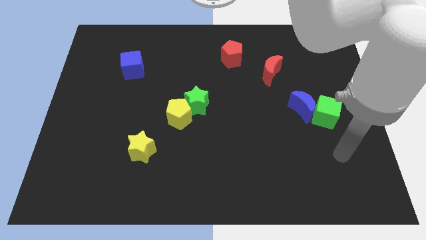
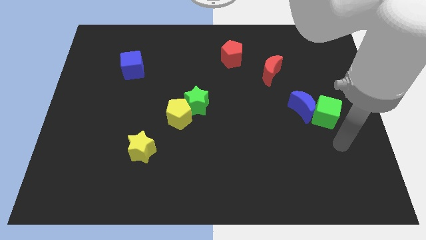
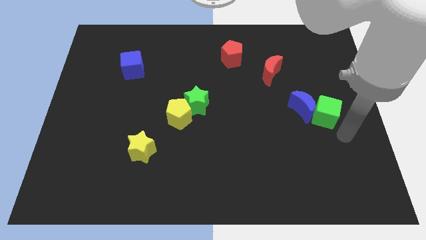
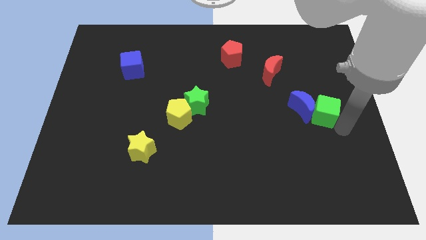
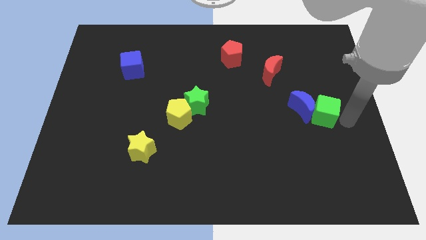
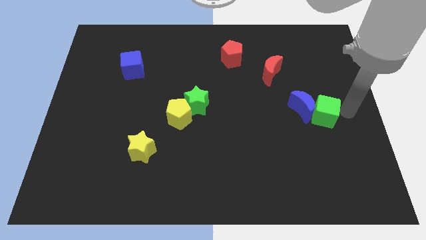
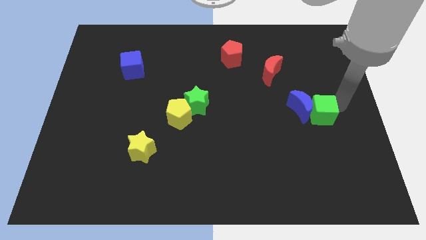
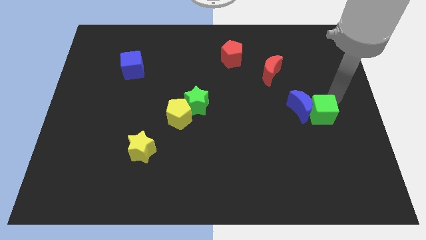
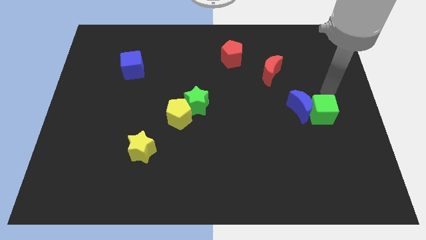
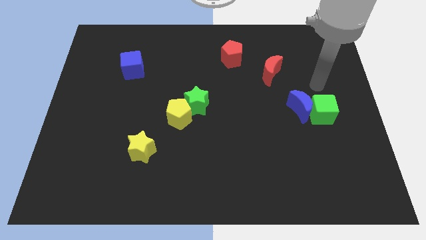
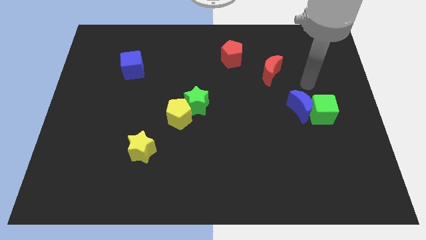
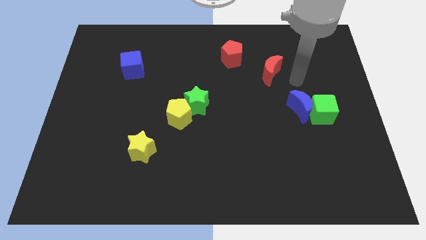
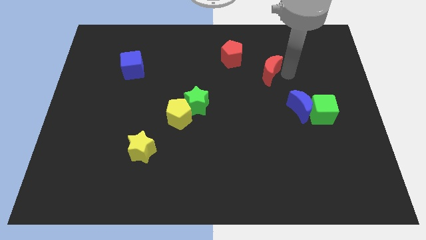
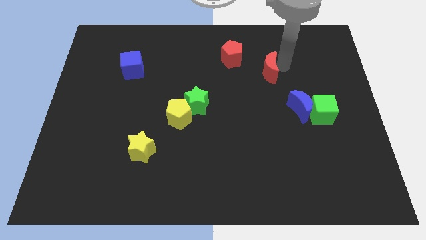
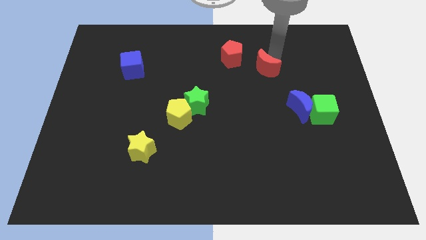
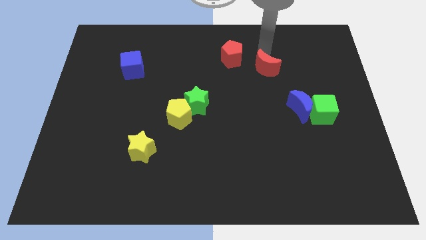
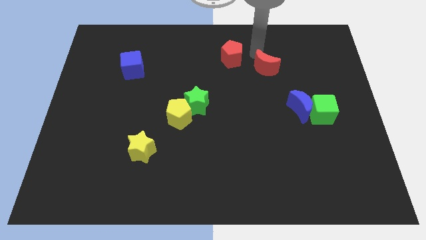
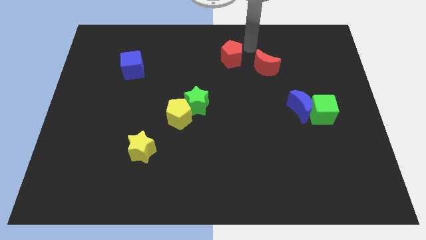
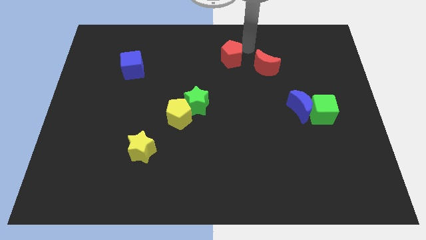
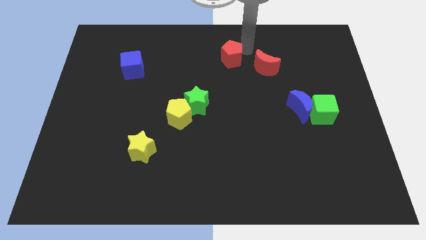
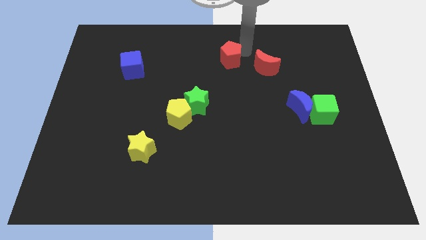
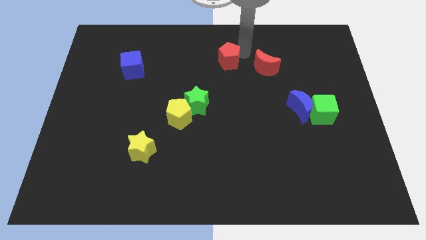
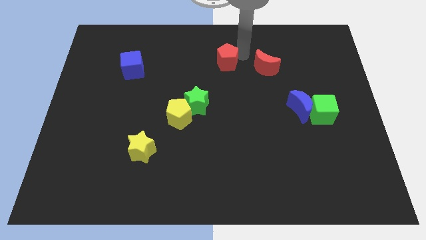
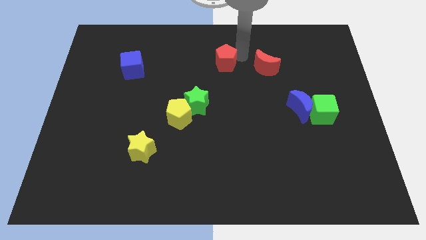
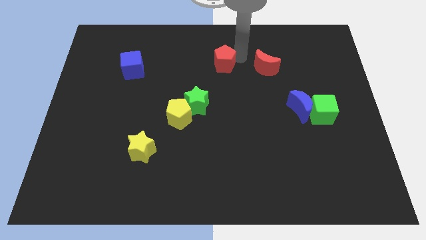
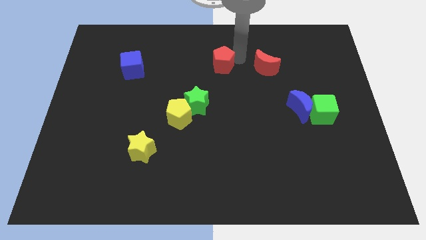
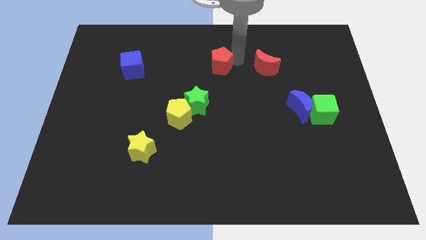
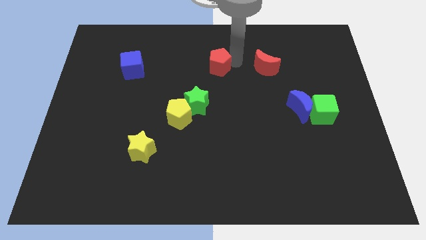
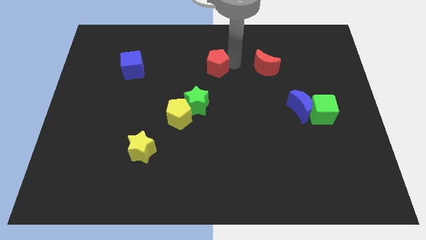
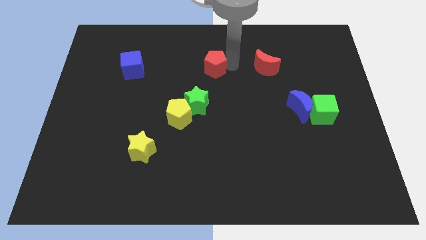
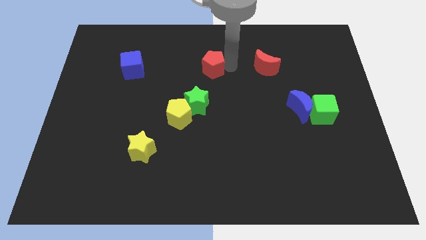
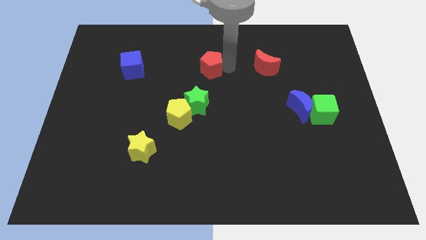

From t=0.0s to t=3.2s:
move the red pentagon a little bit downwards and left diagonally

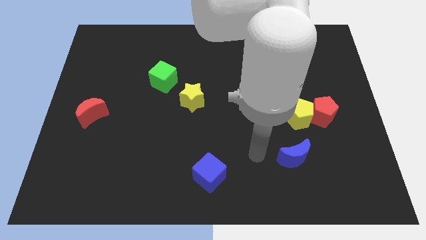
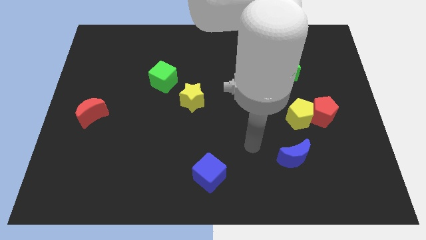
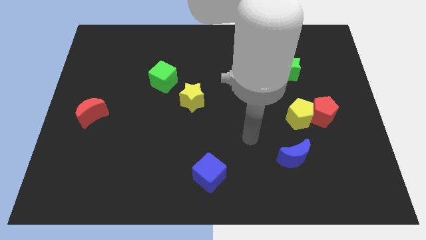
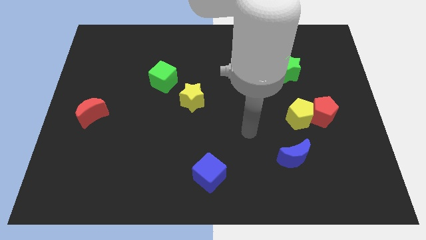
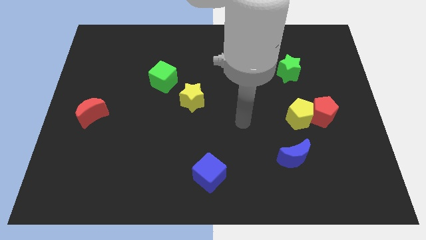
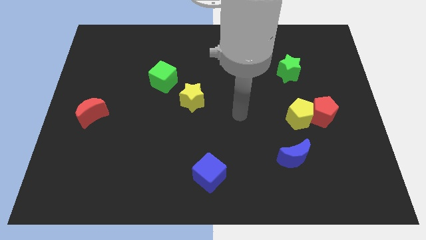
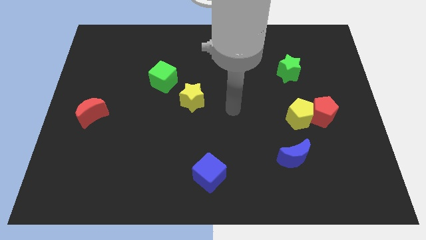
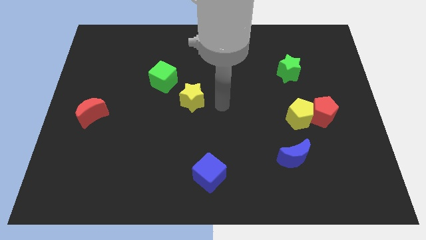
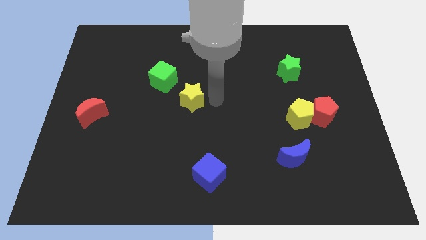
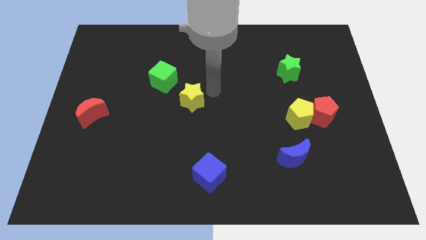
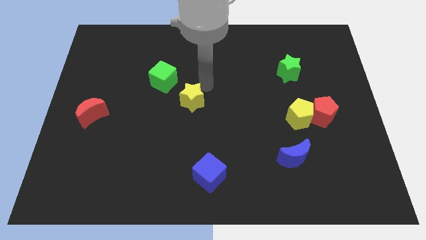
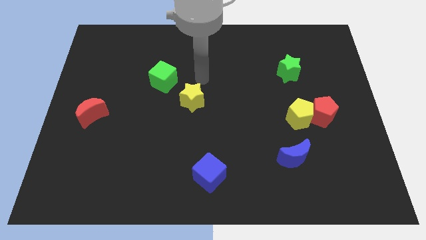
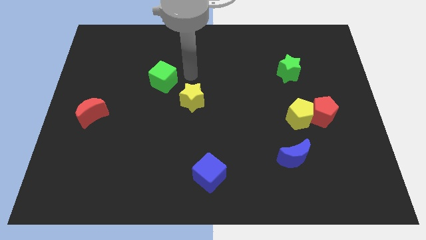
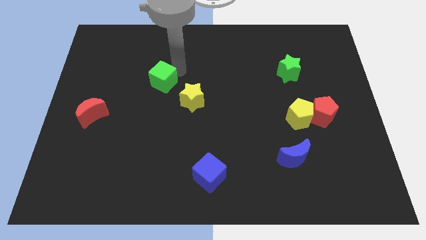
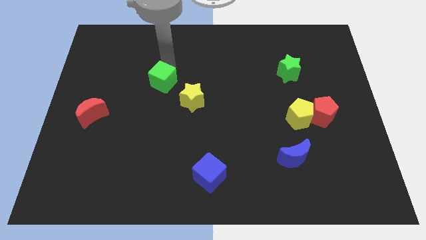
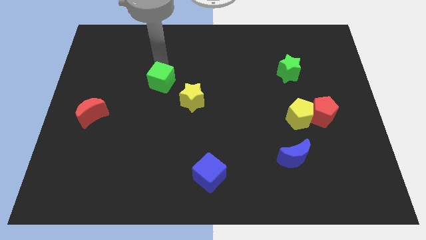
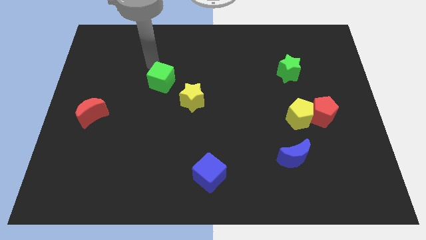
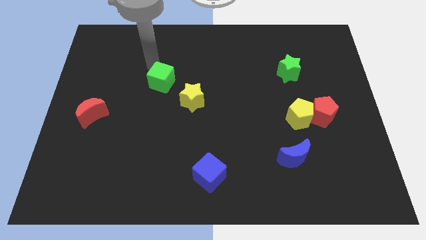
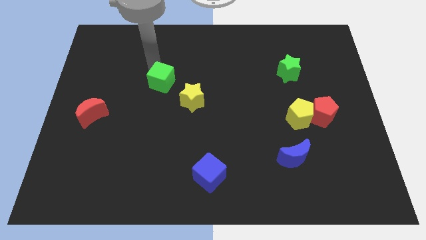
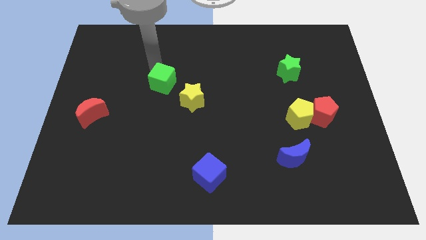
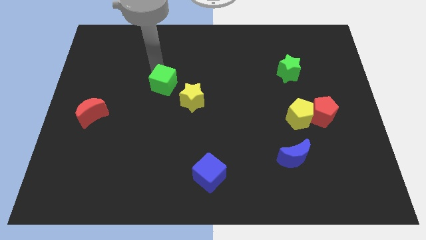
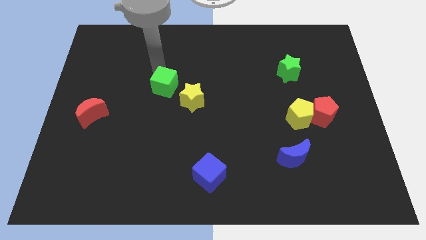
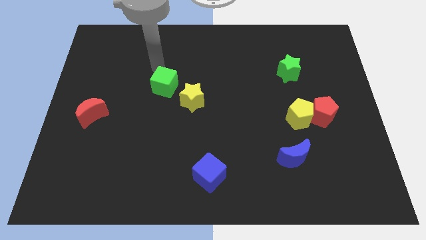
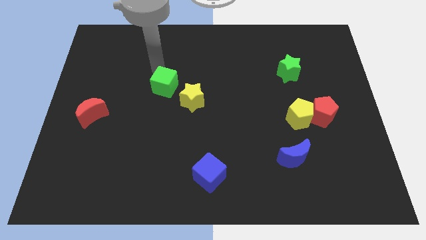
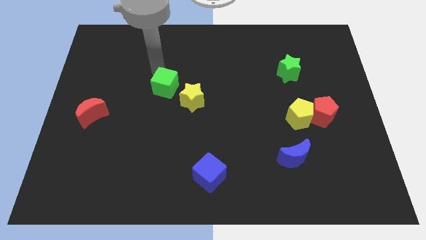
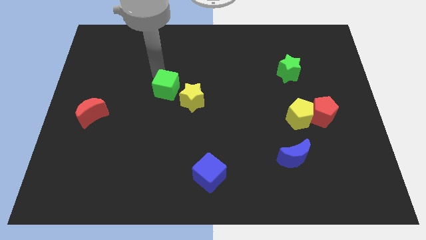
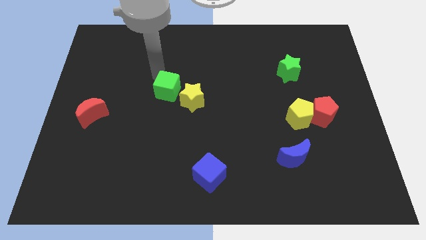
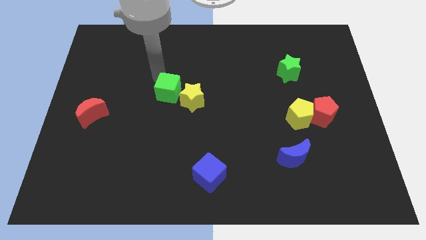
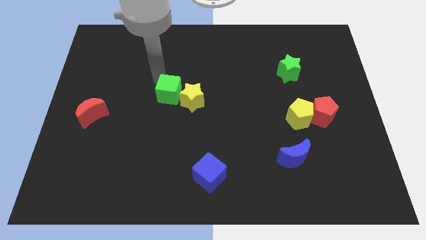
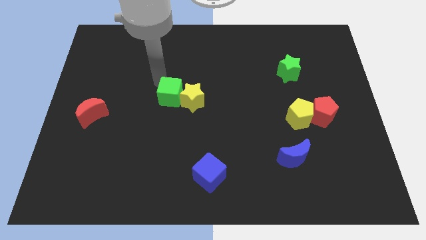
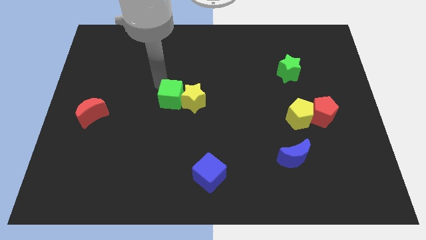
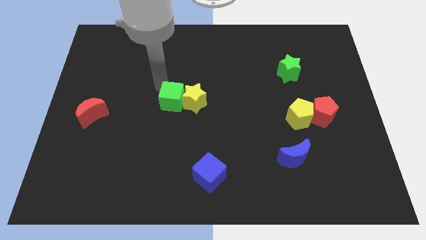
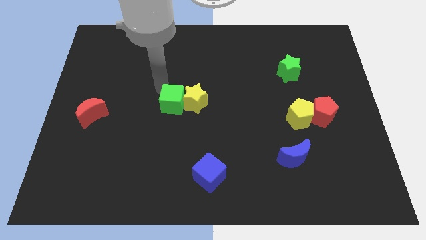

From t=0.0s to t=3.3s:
slightly push the green cube downwards and to the right

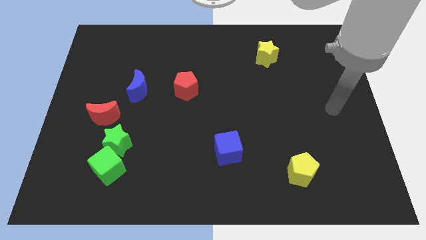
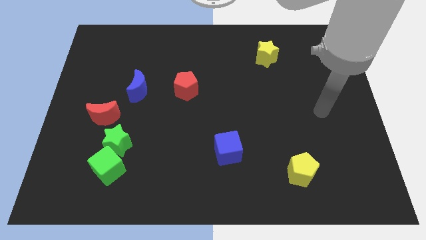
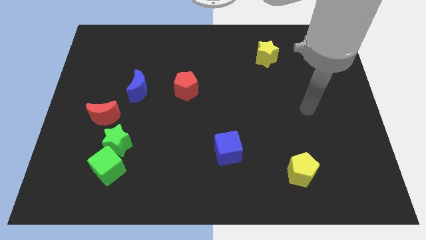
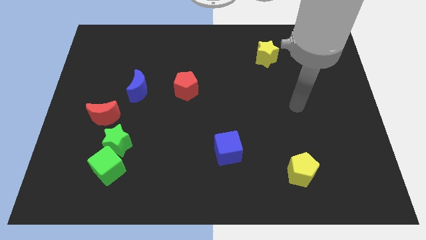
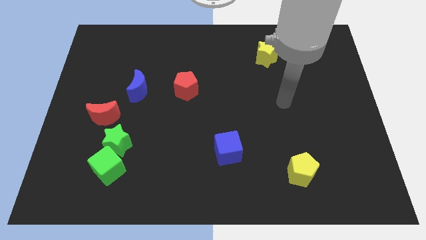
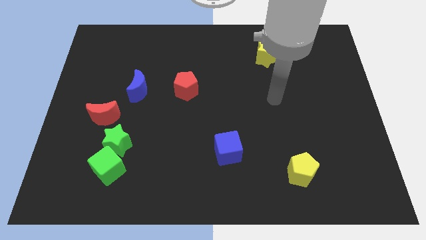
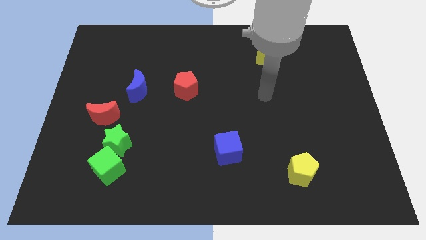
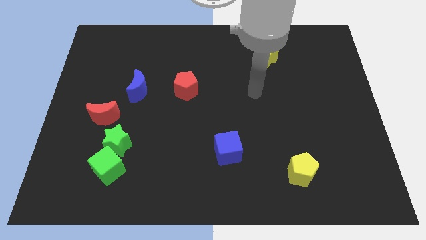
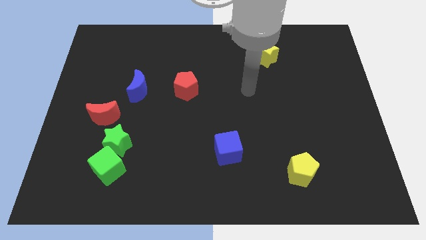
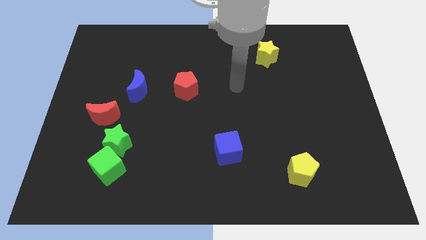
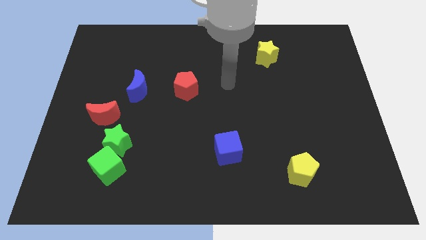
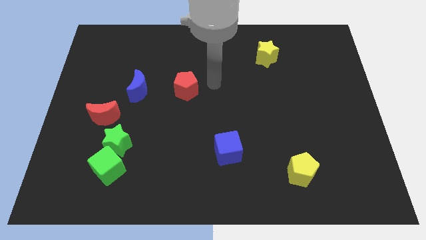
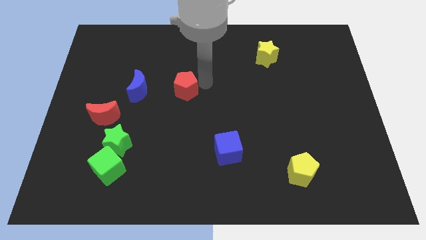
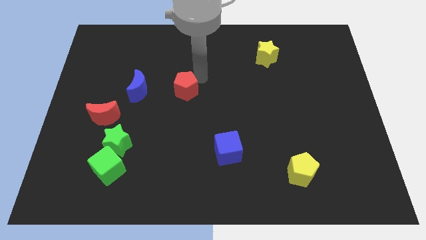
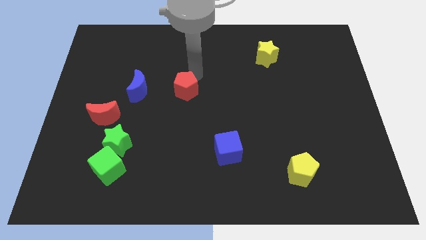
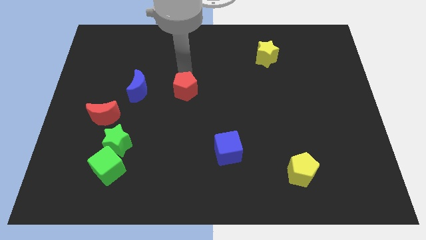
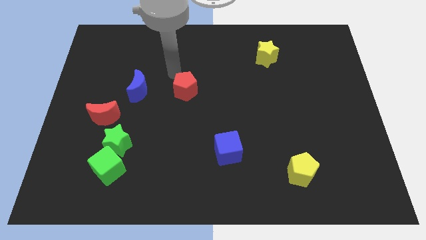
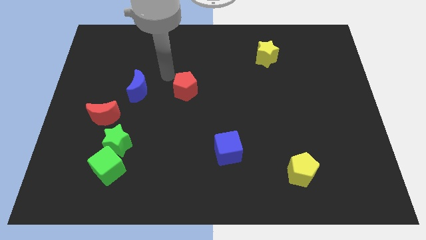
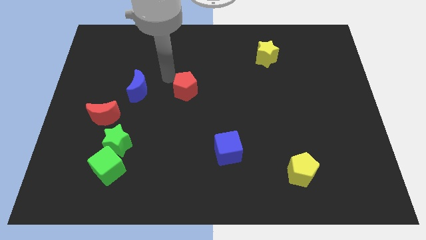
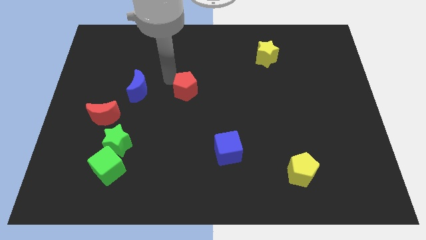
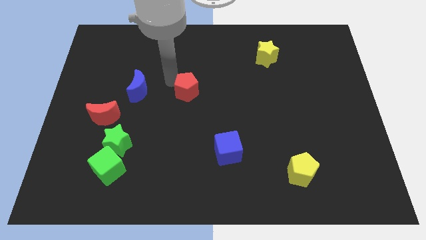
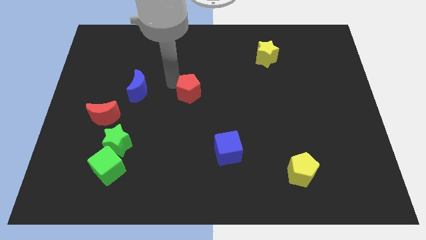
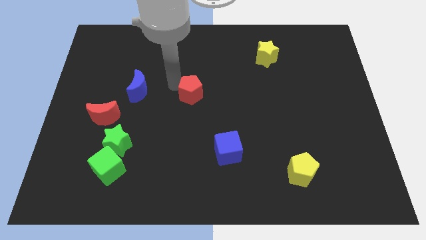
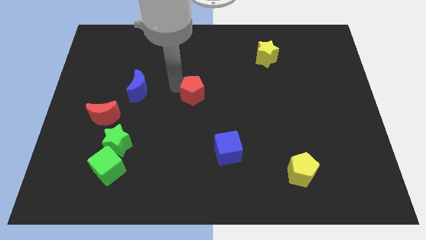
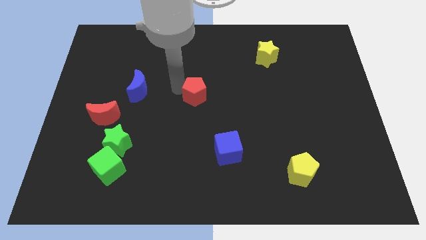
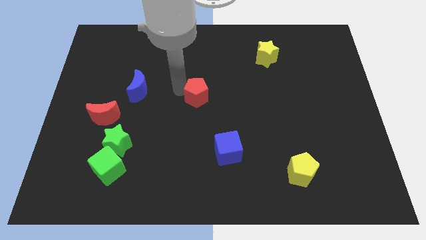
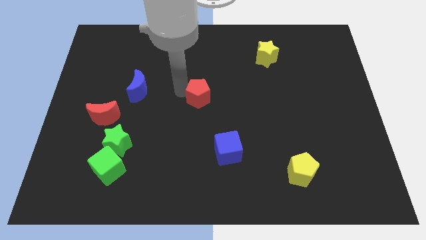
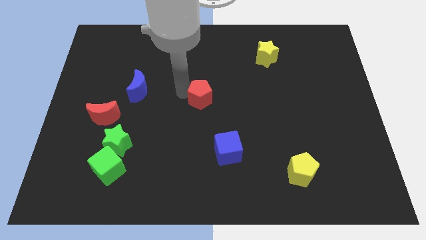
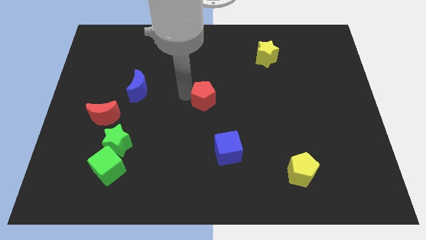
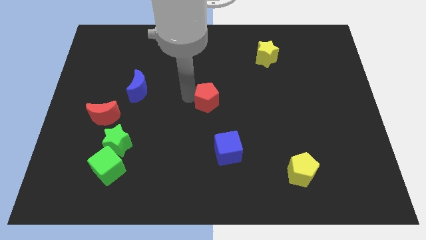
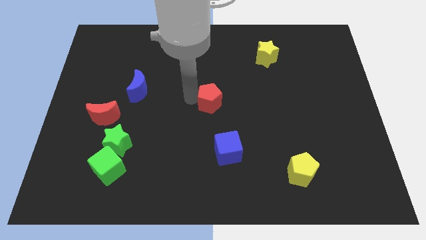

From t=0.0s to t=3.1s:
push the red pentagon down and then right somewhat
